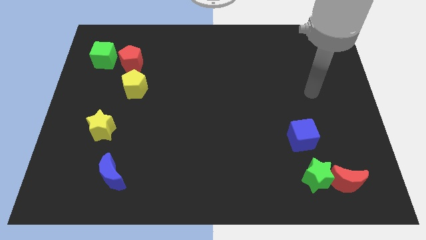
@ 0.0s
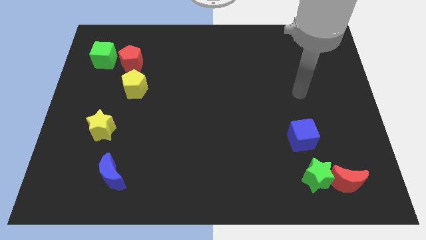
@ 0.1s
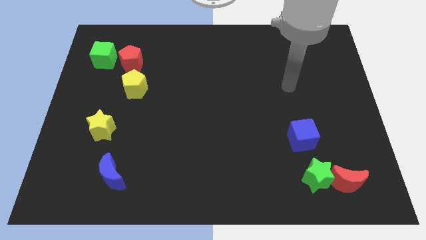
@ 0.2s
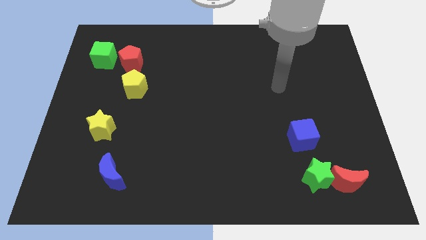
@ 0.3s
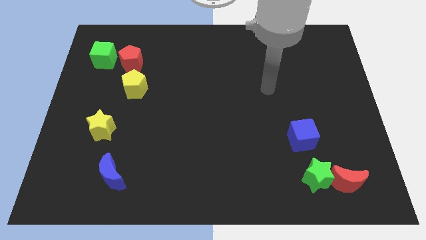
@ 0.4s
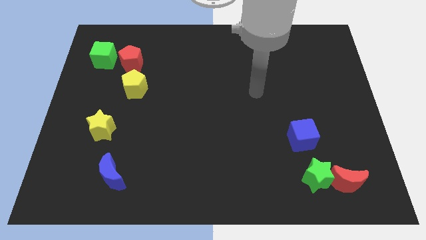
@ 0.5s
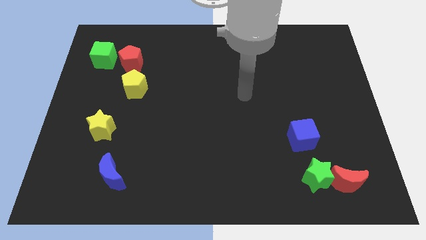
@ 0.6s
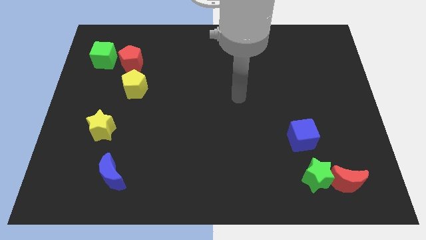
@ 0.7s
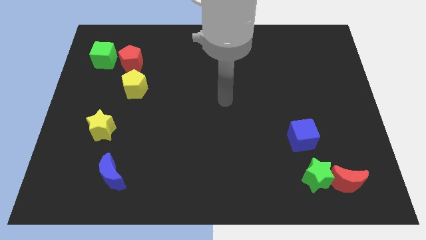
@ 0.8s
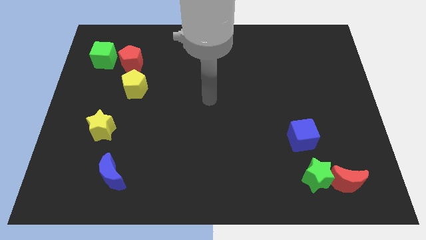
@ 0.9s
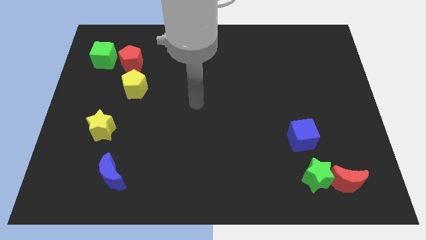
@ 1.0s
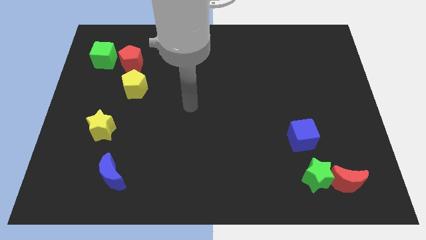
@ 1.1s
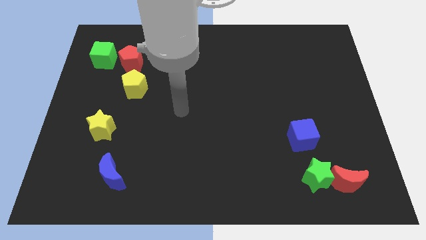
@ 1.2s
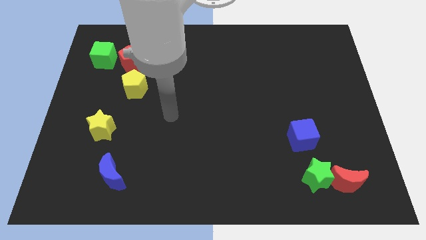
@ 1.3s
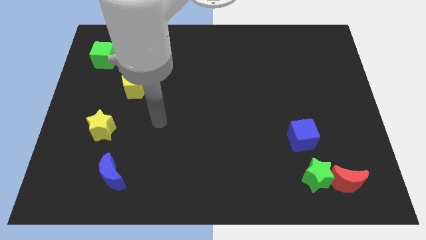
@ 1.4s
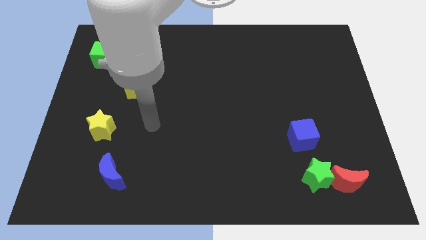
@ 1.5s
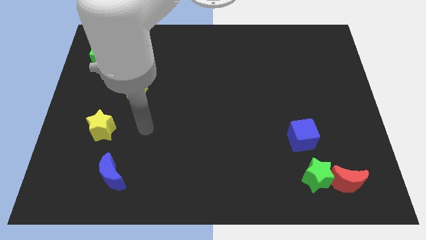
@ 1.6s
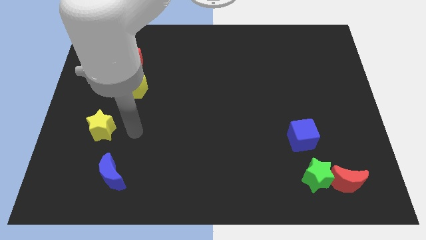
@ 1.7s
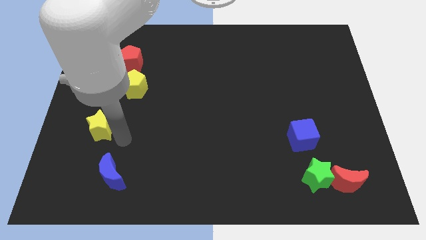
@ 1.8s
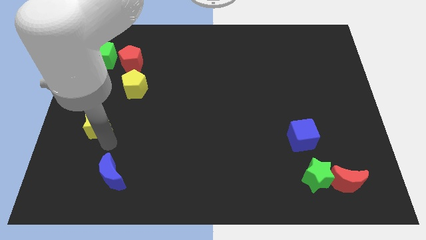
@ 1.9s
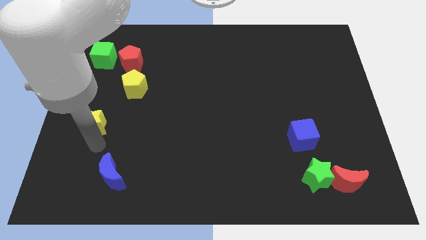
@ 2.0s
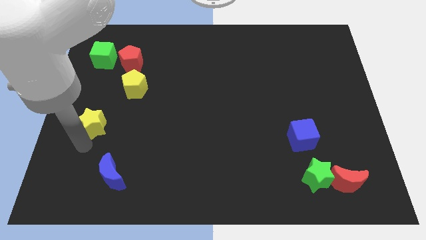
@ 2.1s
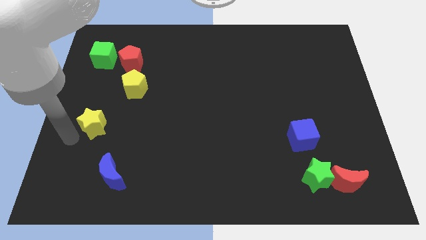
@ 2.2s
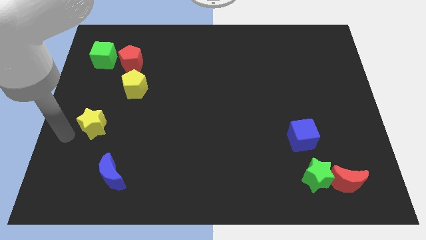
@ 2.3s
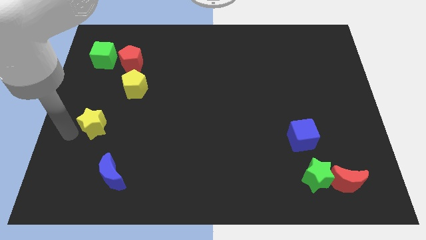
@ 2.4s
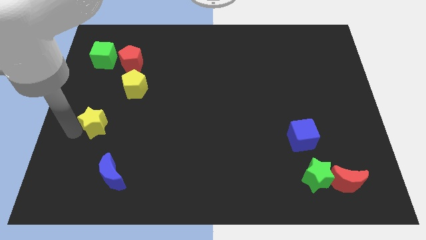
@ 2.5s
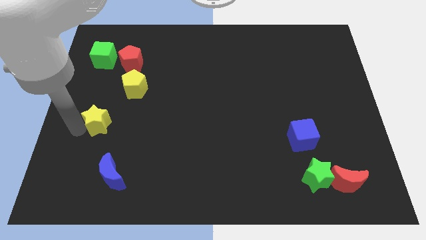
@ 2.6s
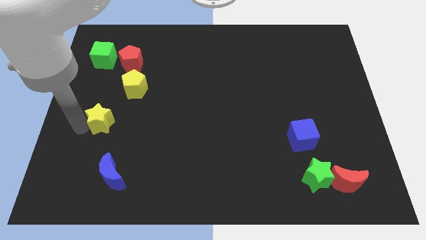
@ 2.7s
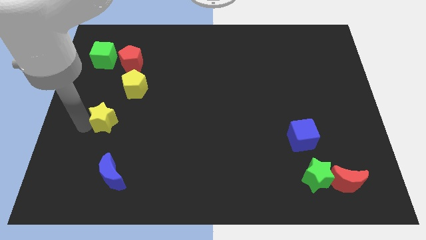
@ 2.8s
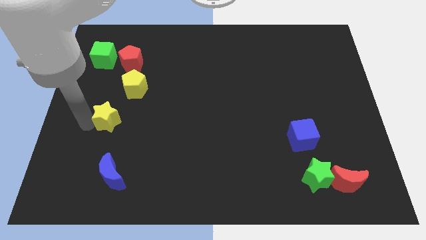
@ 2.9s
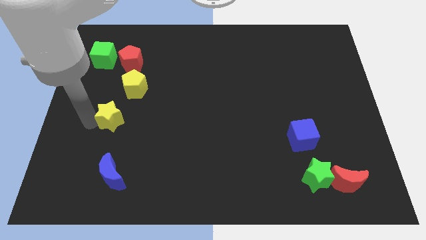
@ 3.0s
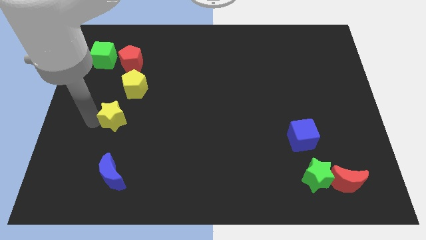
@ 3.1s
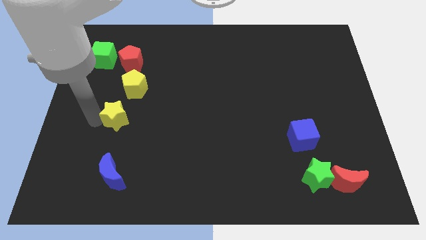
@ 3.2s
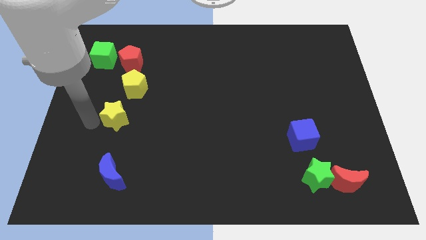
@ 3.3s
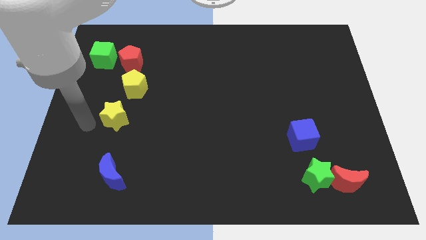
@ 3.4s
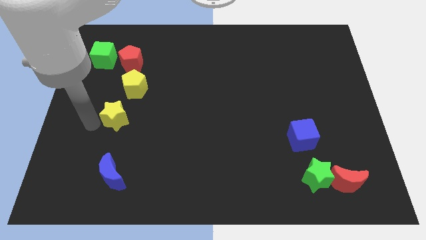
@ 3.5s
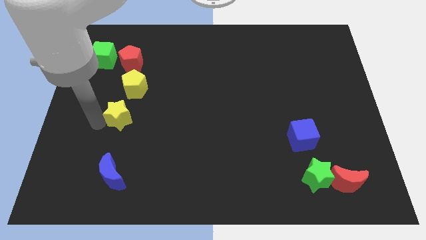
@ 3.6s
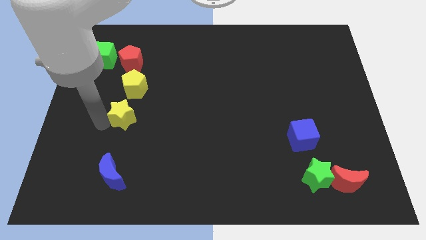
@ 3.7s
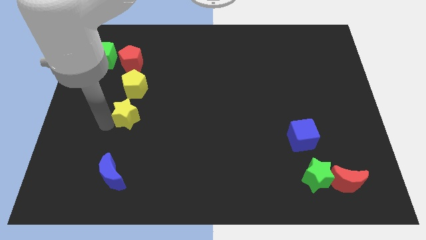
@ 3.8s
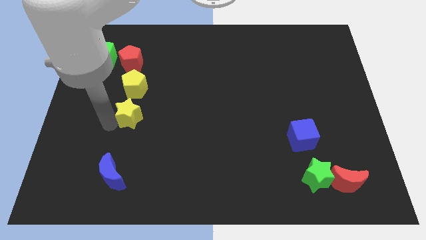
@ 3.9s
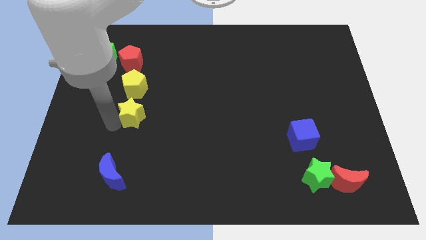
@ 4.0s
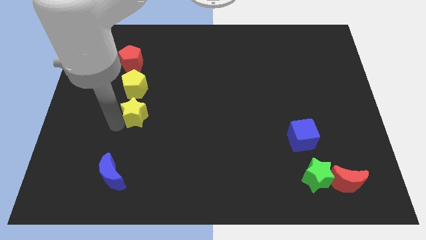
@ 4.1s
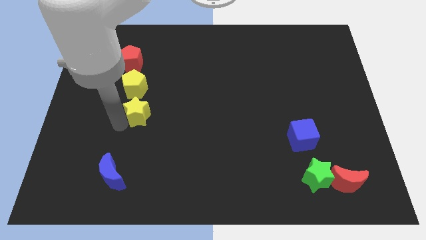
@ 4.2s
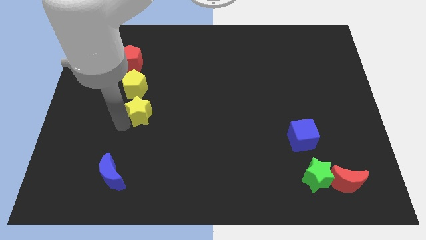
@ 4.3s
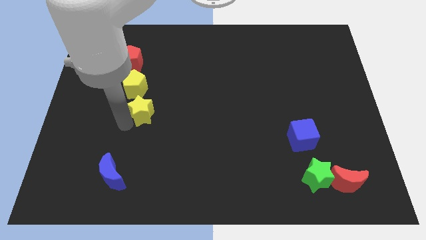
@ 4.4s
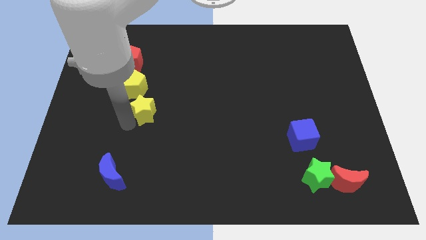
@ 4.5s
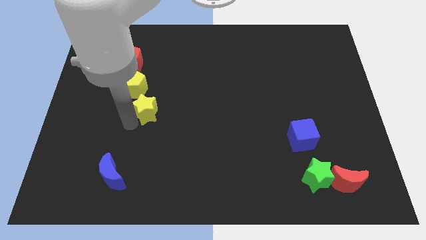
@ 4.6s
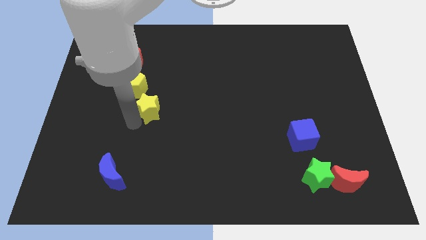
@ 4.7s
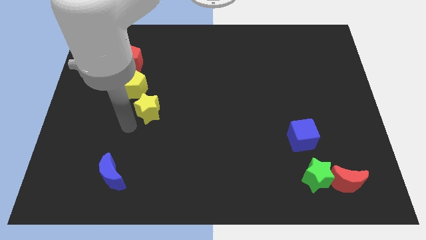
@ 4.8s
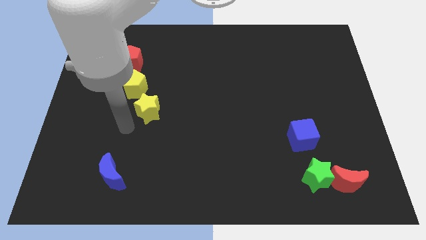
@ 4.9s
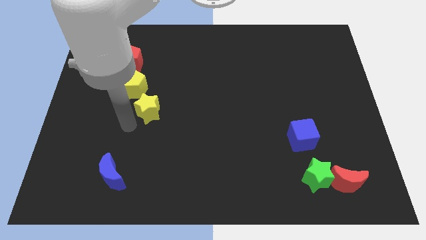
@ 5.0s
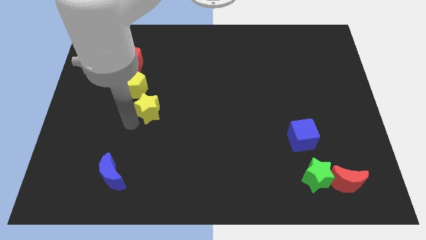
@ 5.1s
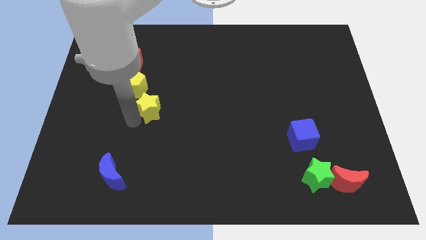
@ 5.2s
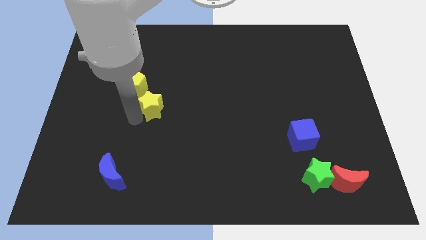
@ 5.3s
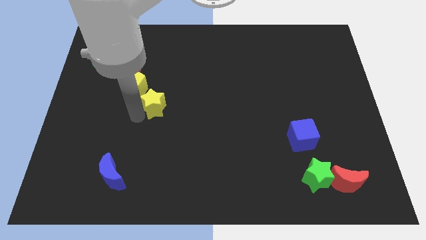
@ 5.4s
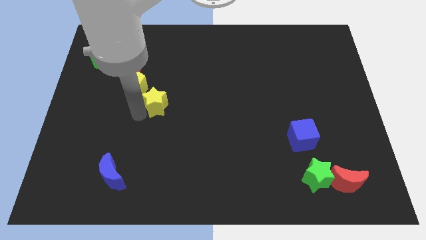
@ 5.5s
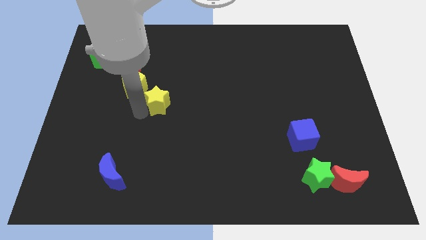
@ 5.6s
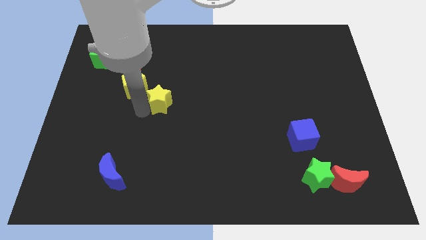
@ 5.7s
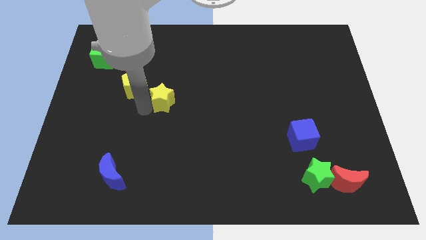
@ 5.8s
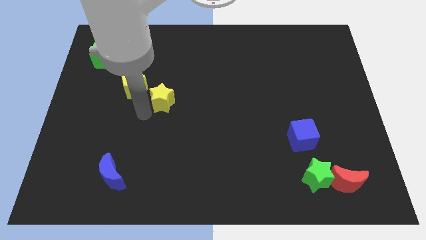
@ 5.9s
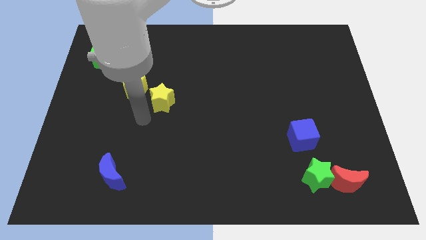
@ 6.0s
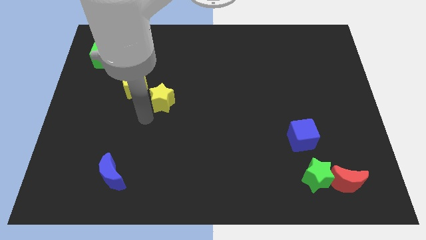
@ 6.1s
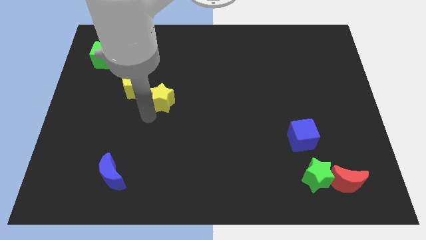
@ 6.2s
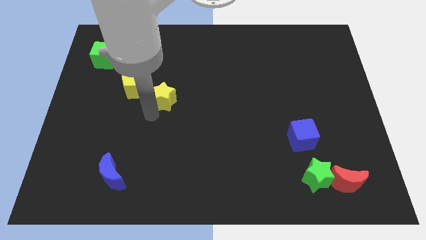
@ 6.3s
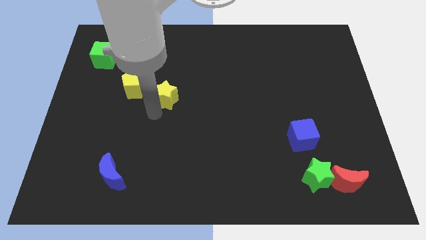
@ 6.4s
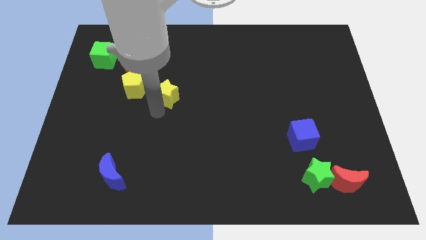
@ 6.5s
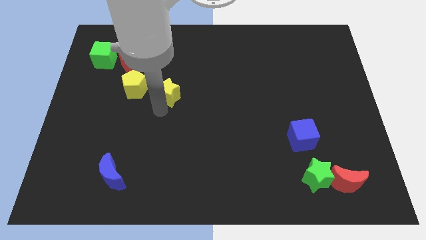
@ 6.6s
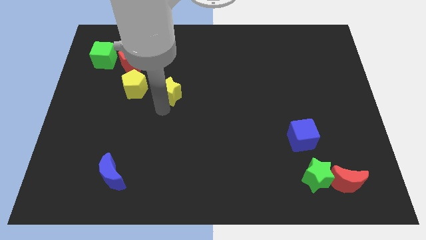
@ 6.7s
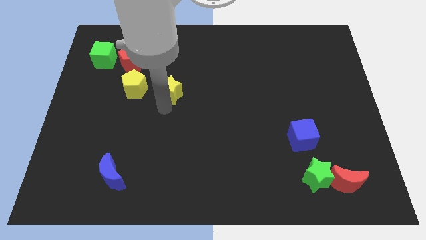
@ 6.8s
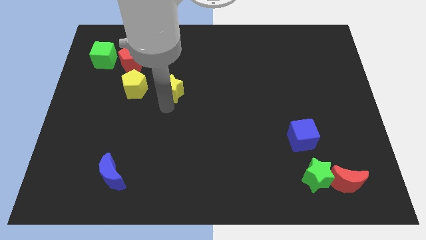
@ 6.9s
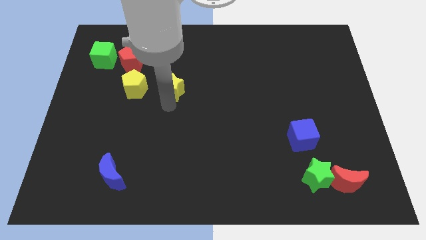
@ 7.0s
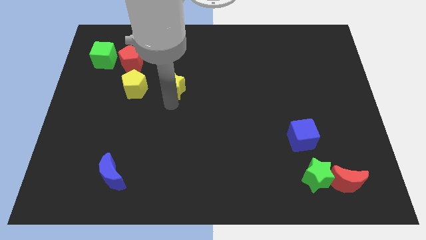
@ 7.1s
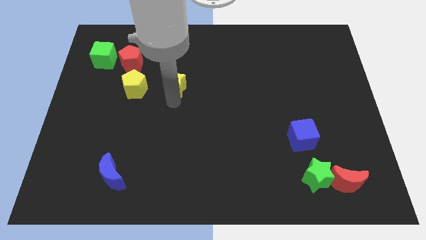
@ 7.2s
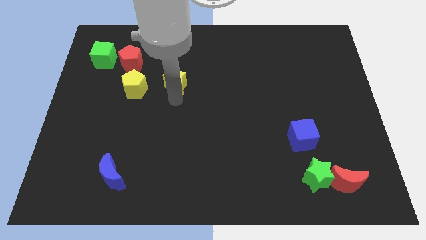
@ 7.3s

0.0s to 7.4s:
slide the yellow star upwards and to the right

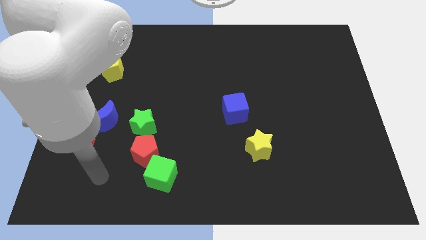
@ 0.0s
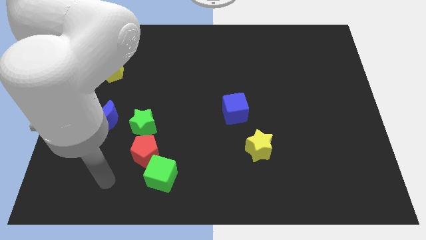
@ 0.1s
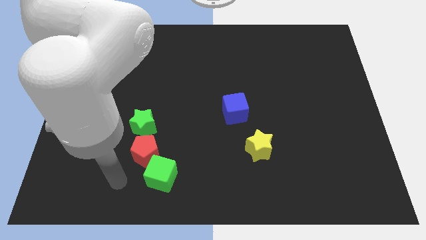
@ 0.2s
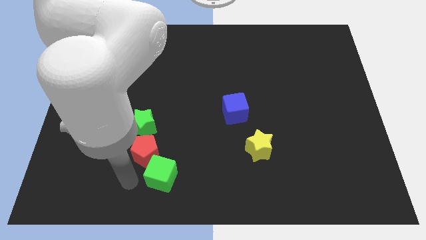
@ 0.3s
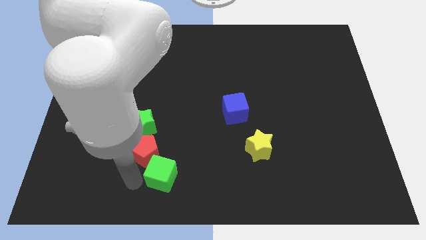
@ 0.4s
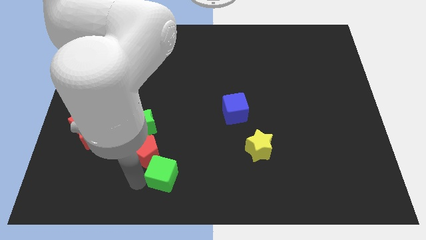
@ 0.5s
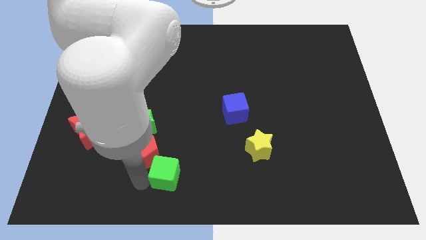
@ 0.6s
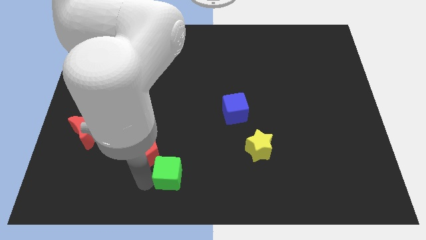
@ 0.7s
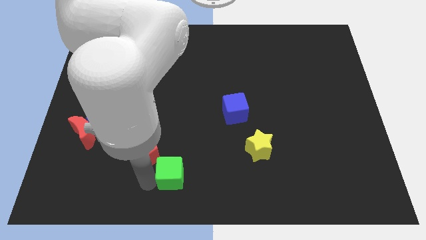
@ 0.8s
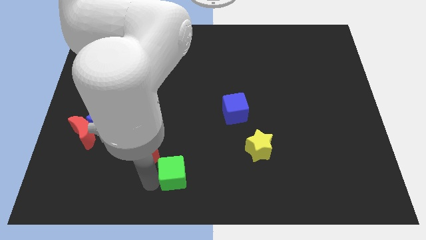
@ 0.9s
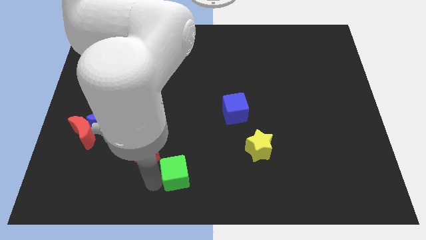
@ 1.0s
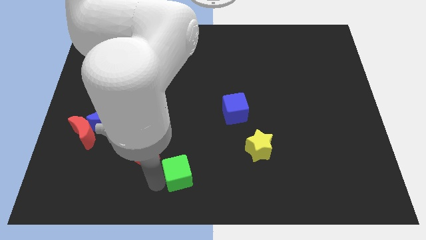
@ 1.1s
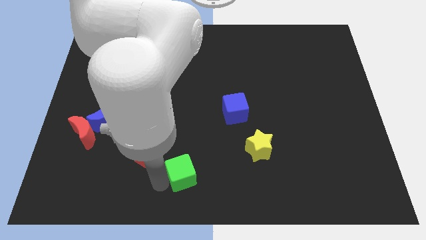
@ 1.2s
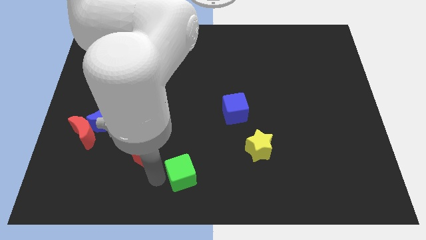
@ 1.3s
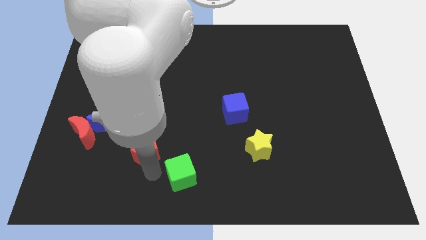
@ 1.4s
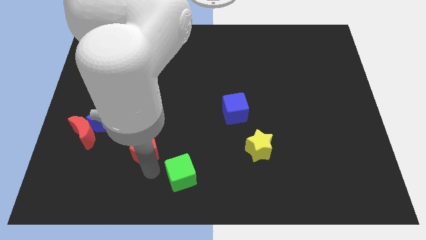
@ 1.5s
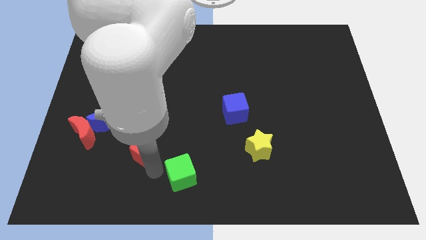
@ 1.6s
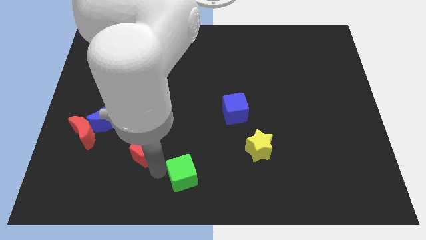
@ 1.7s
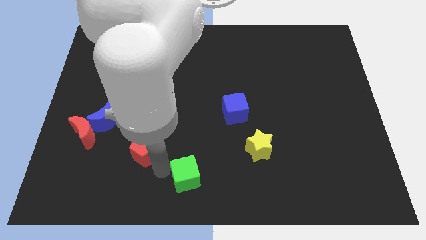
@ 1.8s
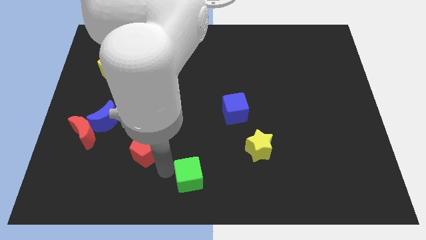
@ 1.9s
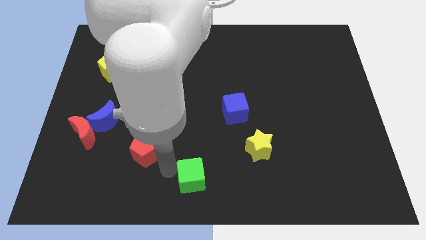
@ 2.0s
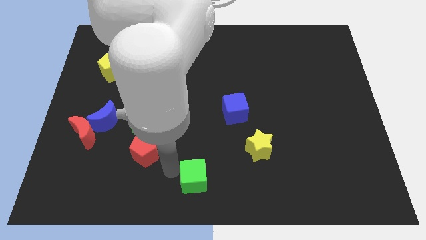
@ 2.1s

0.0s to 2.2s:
push the green cube a little right
